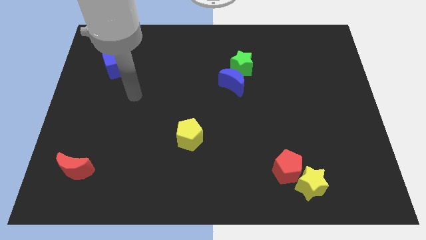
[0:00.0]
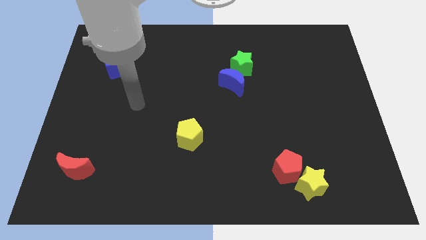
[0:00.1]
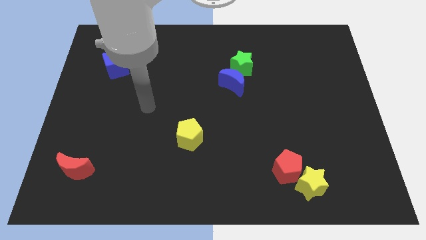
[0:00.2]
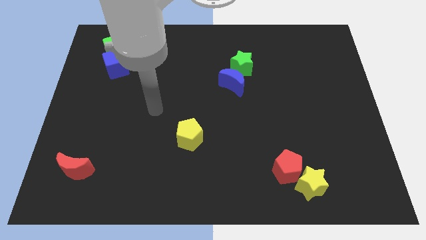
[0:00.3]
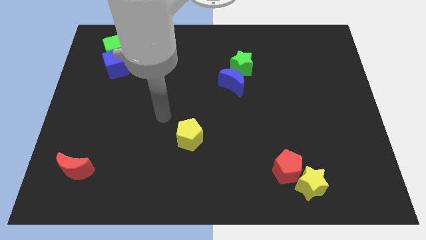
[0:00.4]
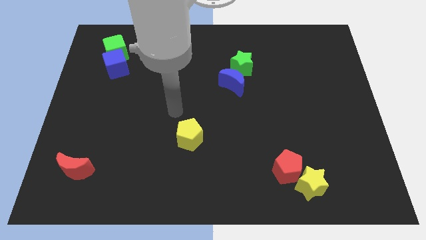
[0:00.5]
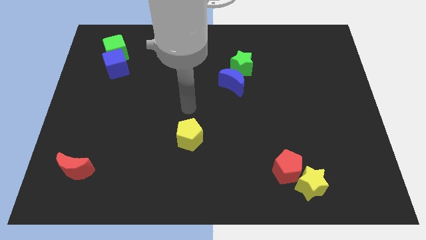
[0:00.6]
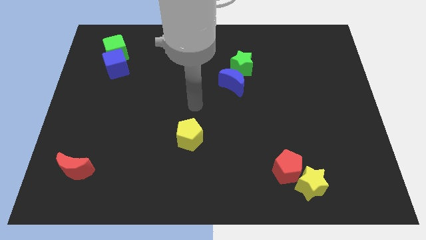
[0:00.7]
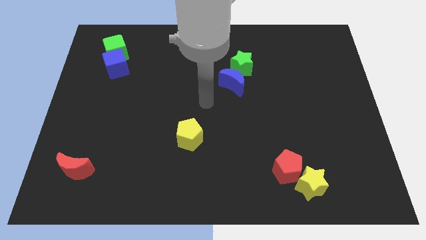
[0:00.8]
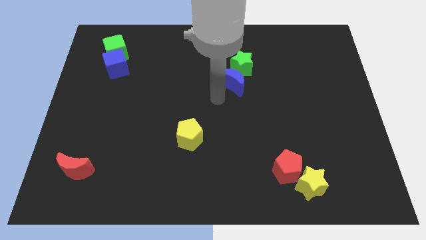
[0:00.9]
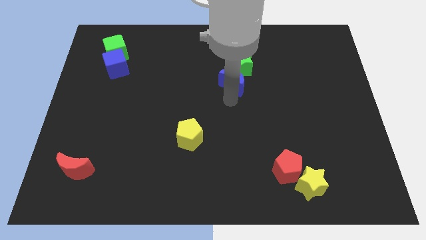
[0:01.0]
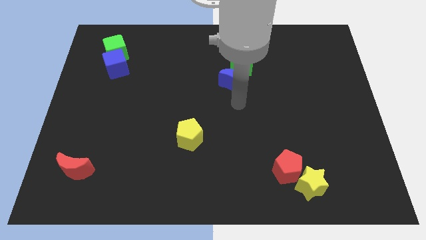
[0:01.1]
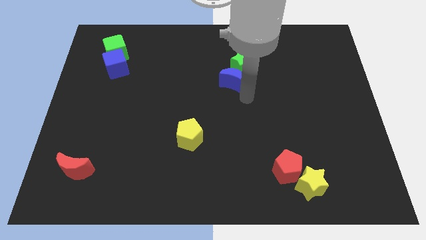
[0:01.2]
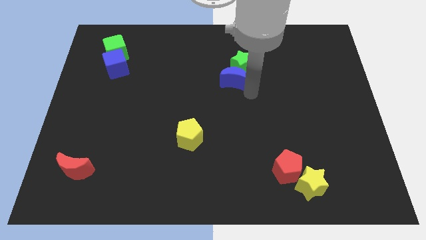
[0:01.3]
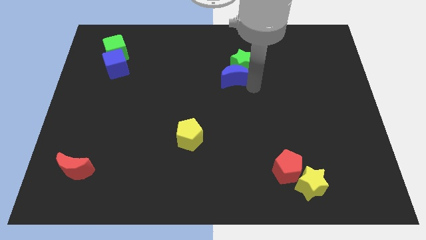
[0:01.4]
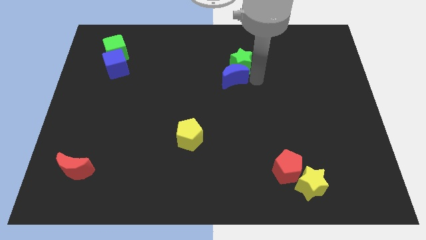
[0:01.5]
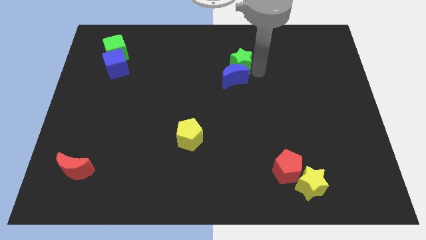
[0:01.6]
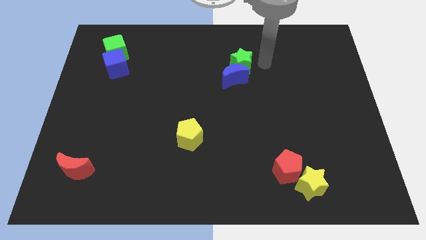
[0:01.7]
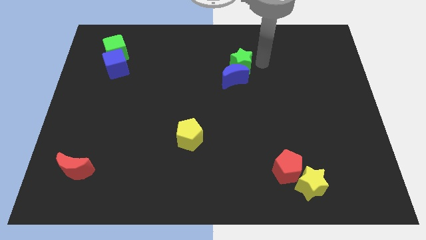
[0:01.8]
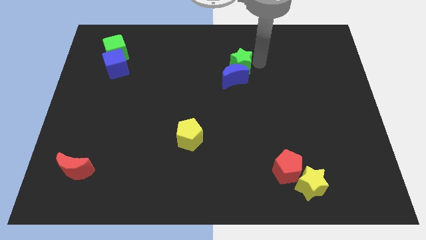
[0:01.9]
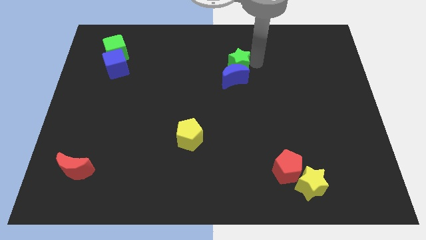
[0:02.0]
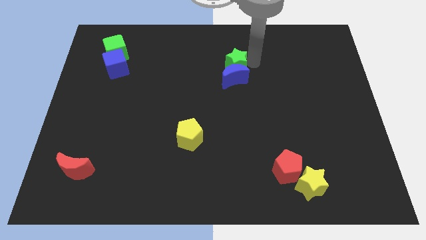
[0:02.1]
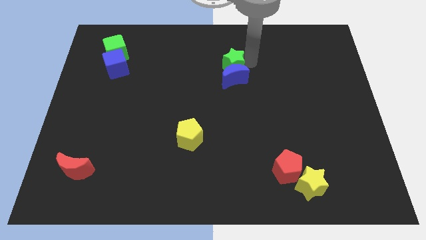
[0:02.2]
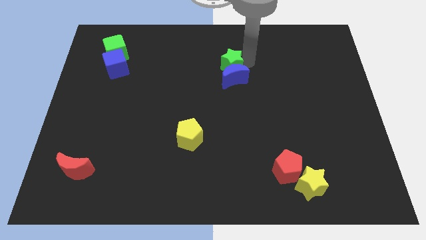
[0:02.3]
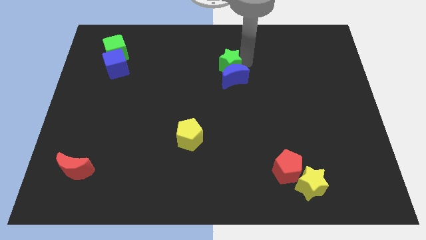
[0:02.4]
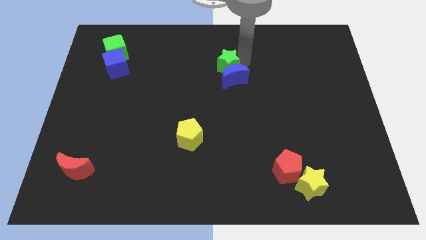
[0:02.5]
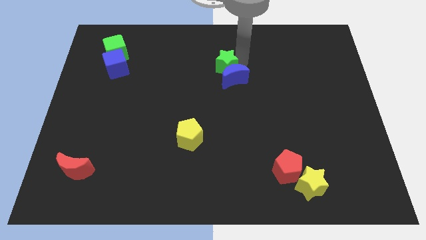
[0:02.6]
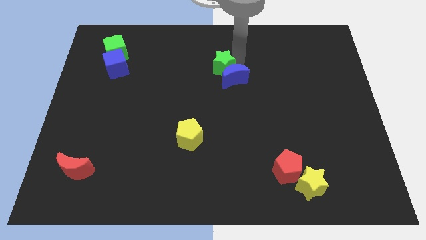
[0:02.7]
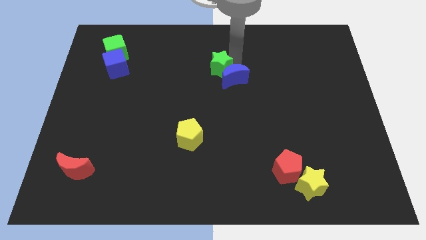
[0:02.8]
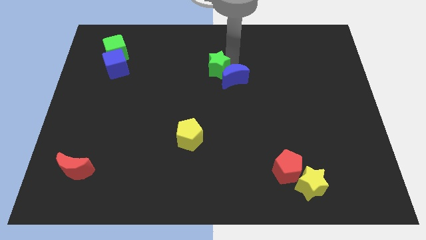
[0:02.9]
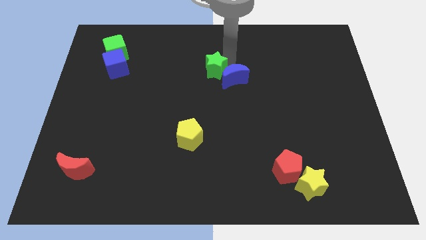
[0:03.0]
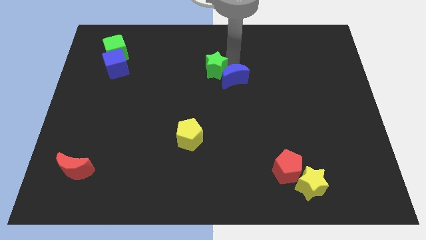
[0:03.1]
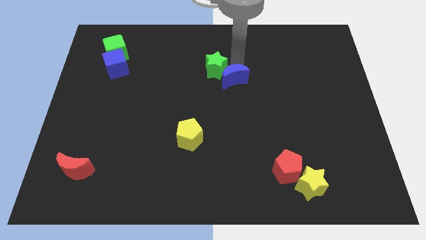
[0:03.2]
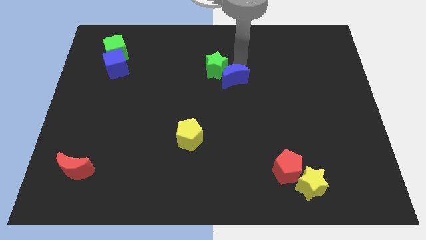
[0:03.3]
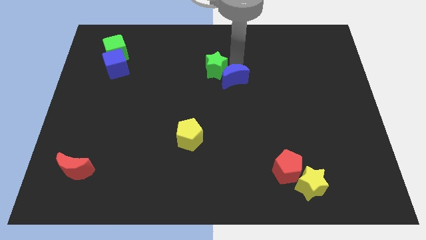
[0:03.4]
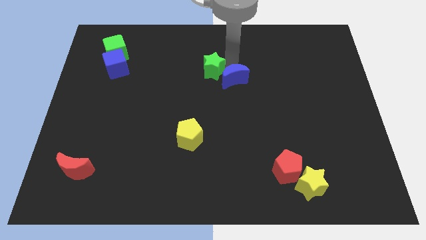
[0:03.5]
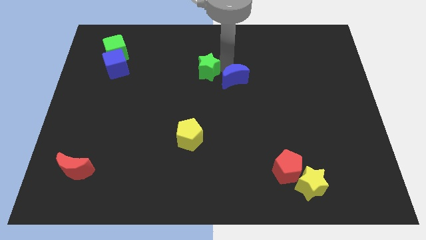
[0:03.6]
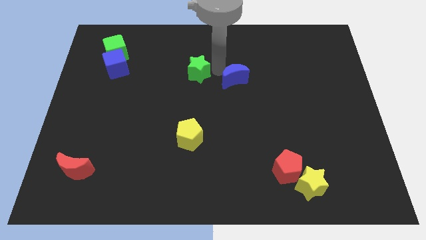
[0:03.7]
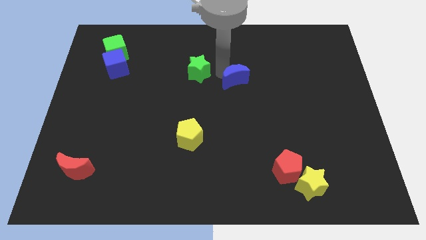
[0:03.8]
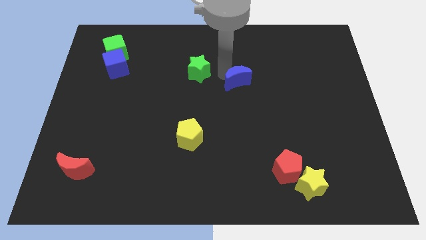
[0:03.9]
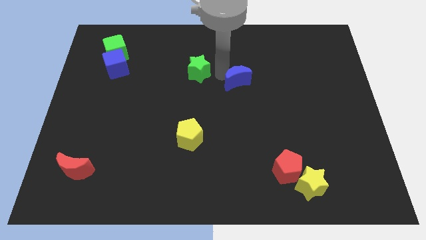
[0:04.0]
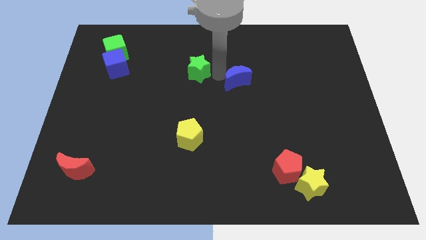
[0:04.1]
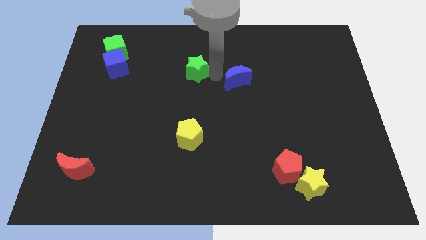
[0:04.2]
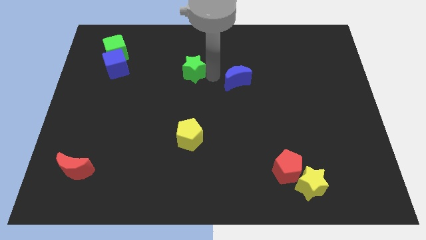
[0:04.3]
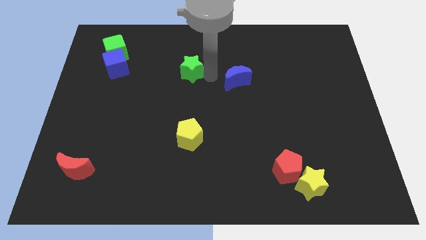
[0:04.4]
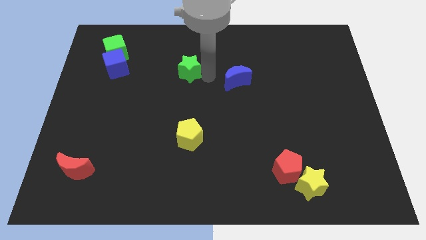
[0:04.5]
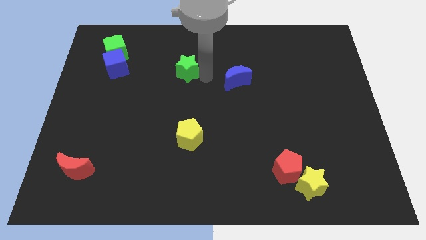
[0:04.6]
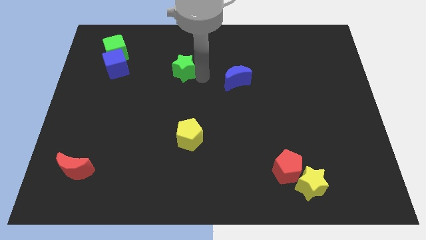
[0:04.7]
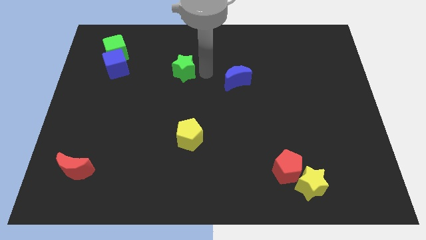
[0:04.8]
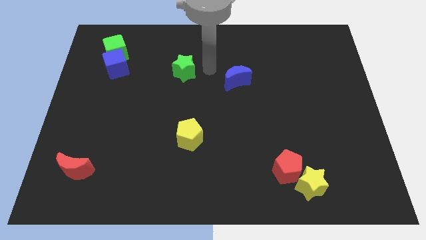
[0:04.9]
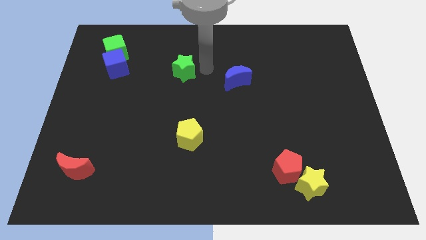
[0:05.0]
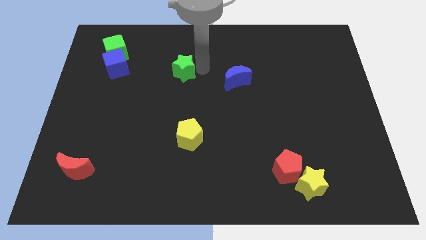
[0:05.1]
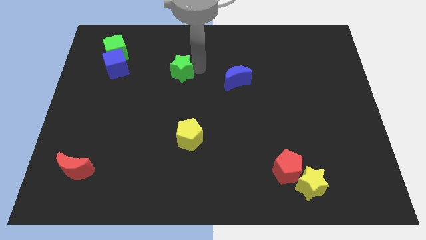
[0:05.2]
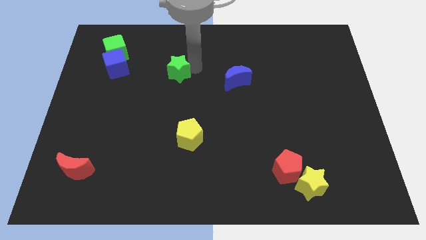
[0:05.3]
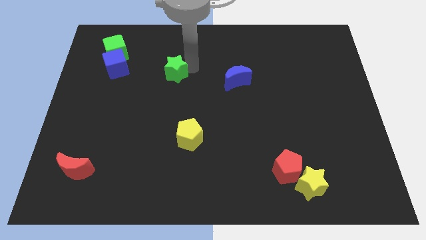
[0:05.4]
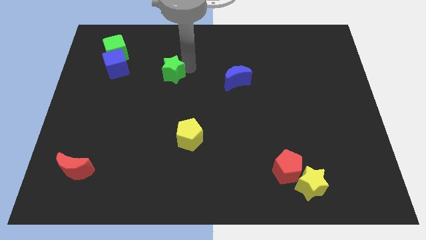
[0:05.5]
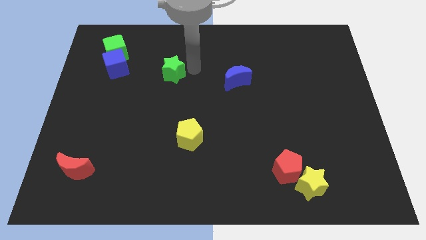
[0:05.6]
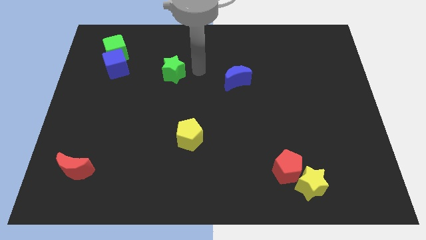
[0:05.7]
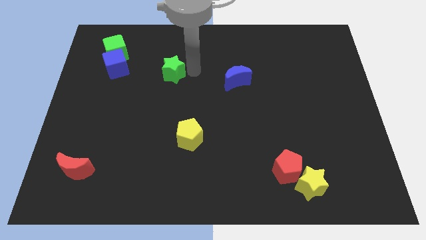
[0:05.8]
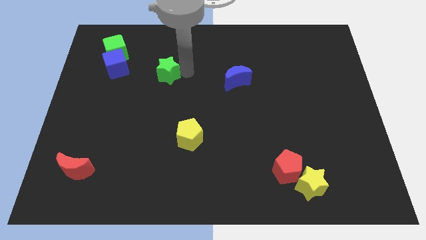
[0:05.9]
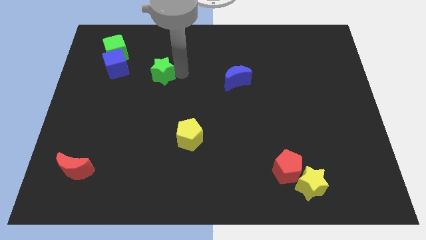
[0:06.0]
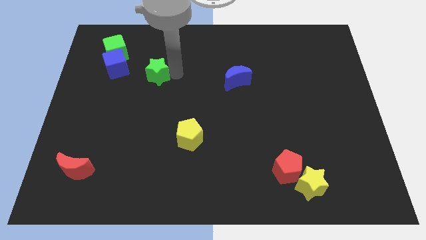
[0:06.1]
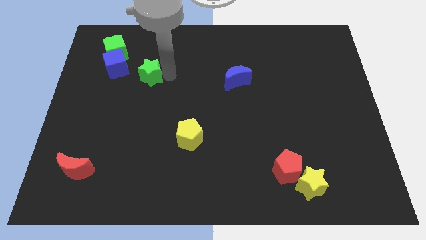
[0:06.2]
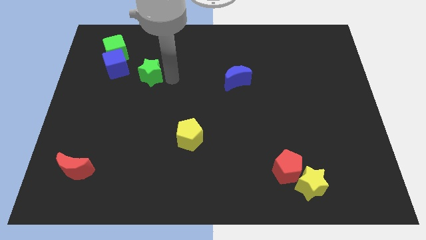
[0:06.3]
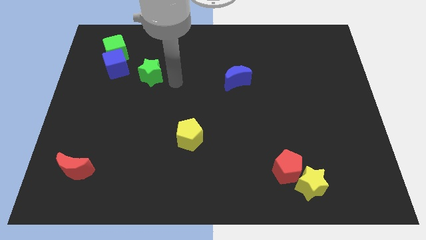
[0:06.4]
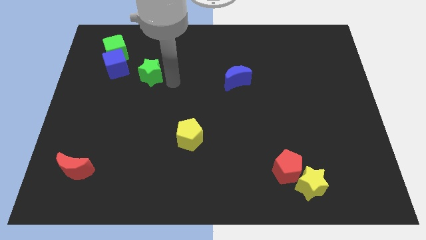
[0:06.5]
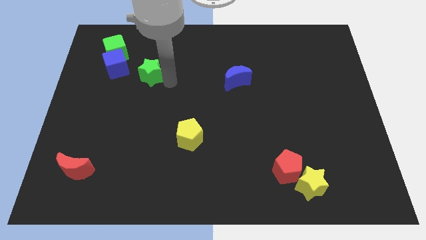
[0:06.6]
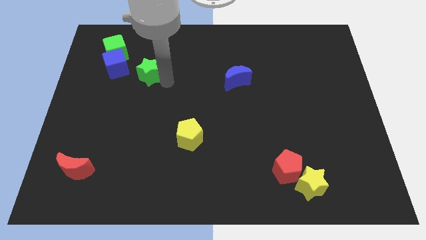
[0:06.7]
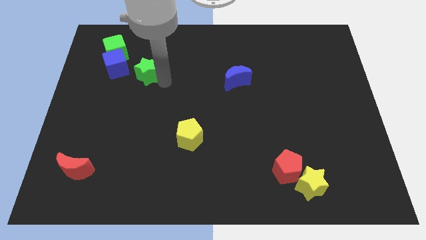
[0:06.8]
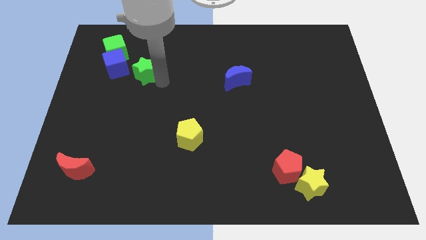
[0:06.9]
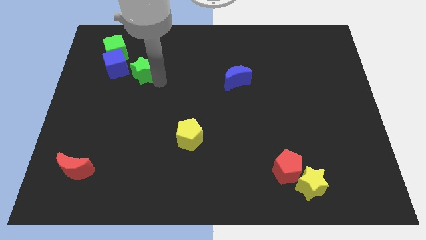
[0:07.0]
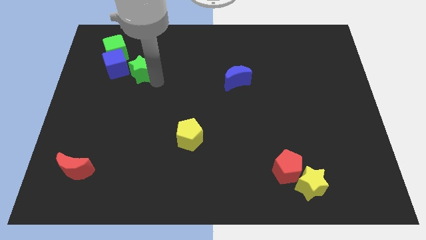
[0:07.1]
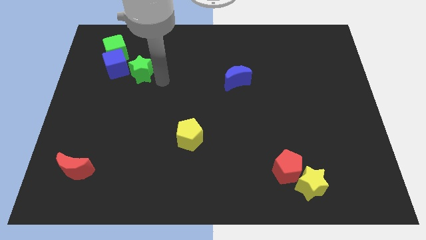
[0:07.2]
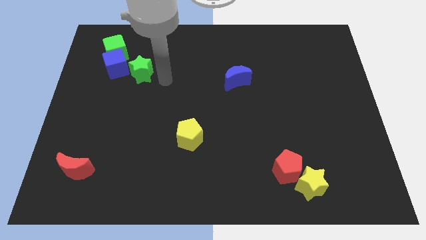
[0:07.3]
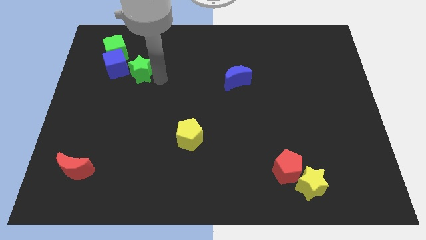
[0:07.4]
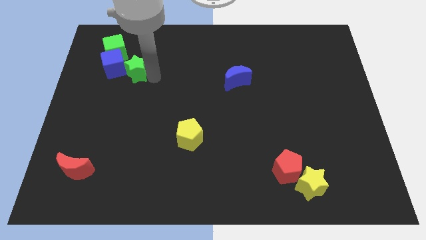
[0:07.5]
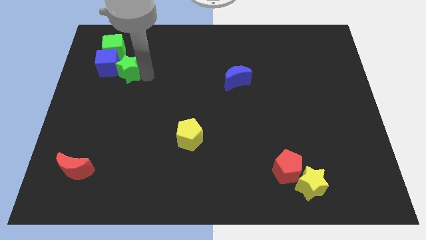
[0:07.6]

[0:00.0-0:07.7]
move the green star to the blue cube

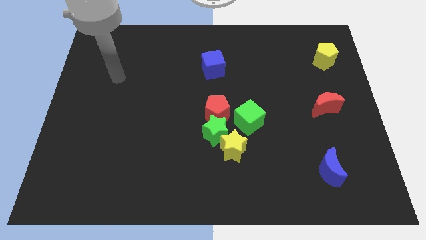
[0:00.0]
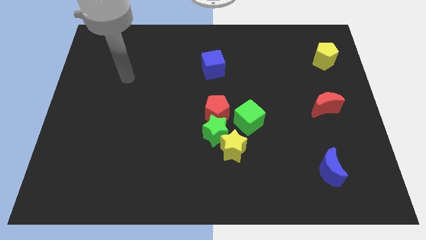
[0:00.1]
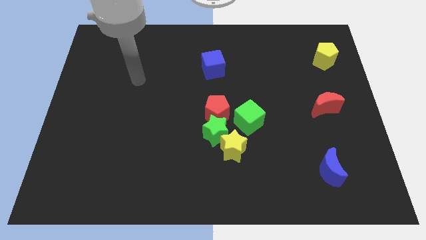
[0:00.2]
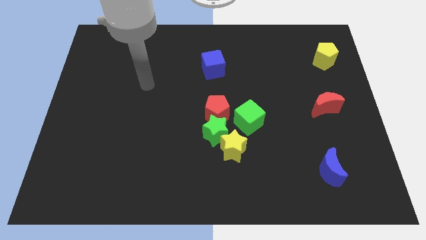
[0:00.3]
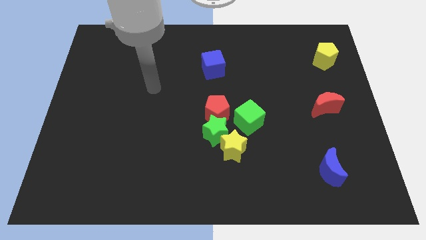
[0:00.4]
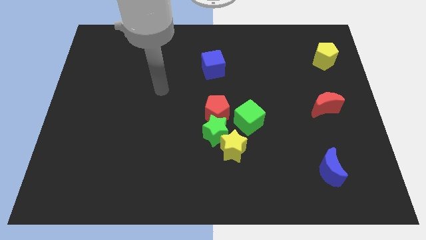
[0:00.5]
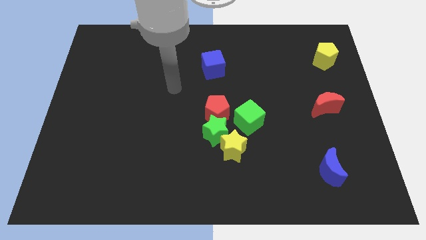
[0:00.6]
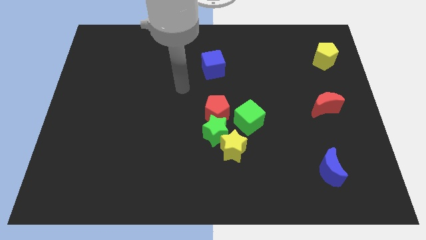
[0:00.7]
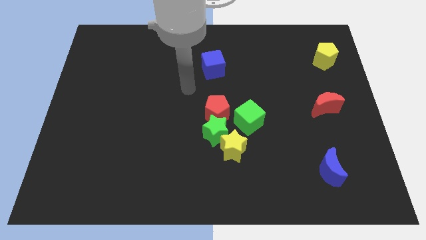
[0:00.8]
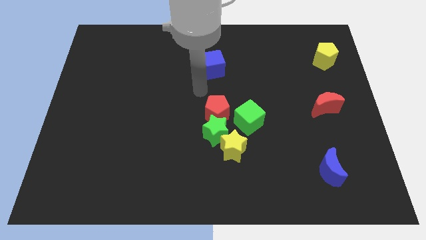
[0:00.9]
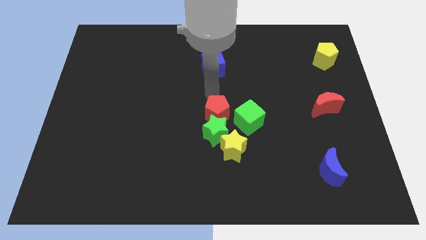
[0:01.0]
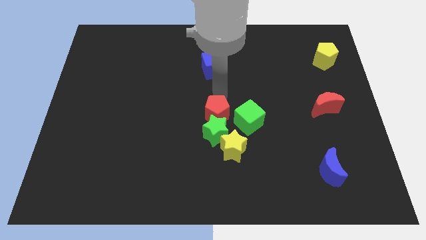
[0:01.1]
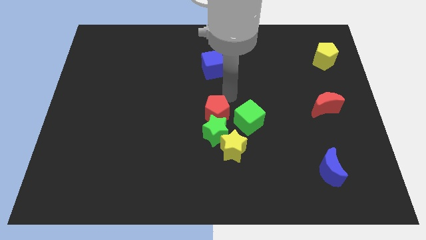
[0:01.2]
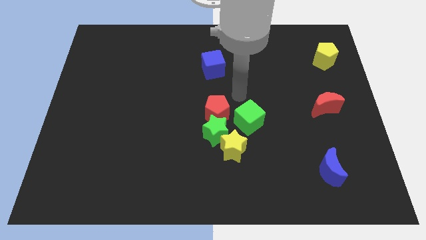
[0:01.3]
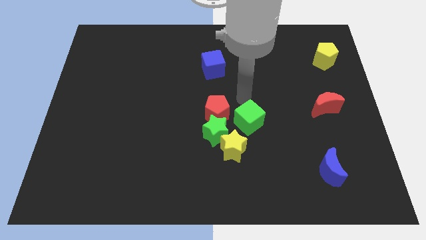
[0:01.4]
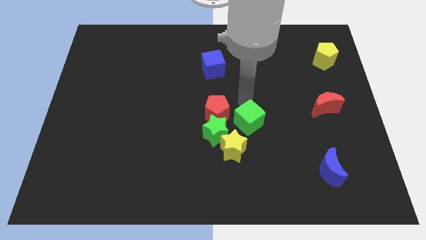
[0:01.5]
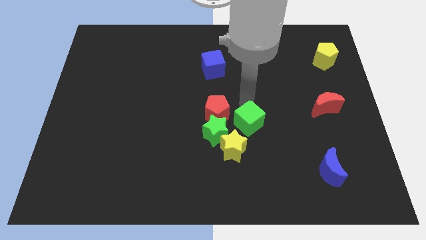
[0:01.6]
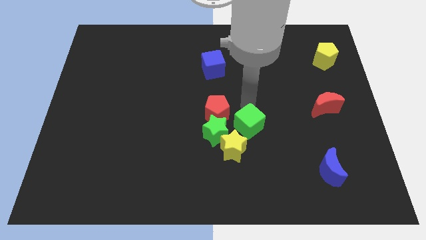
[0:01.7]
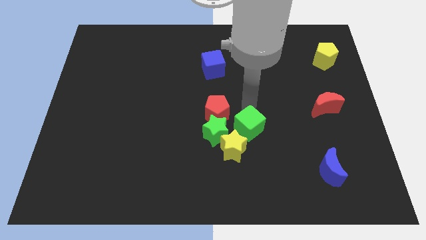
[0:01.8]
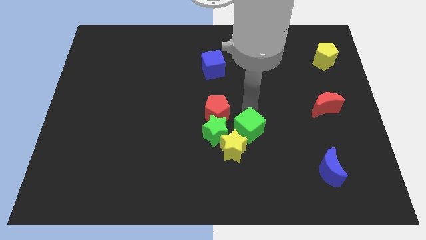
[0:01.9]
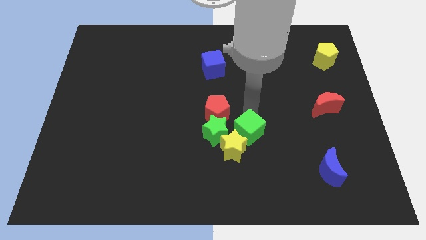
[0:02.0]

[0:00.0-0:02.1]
move the green cube to the yellow star
